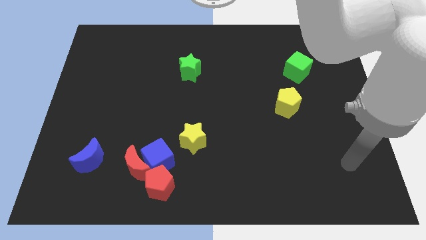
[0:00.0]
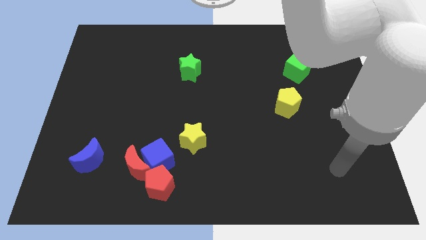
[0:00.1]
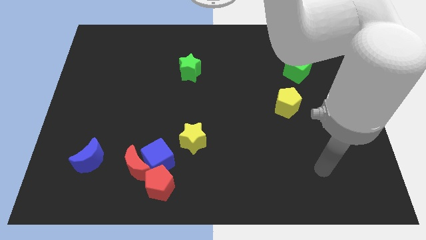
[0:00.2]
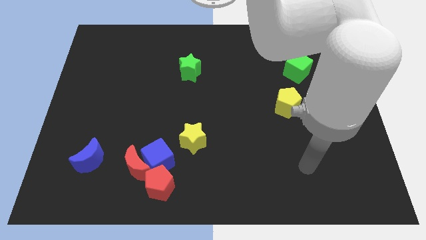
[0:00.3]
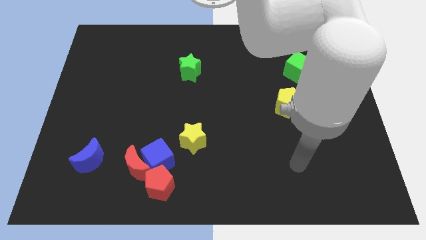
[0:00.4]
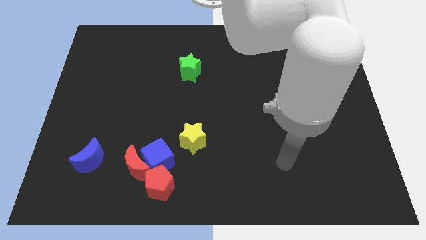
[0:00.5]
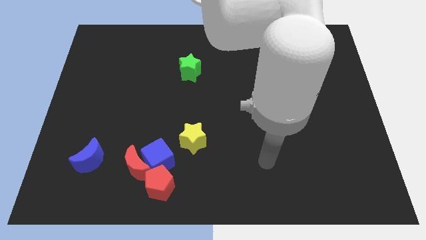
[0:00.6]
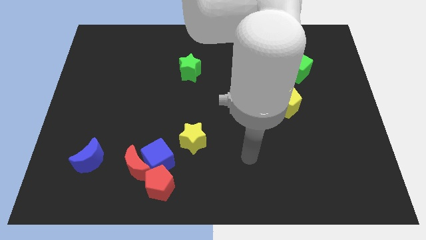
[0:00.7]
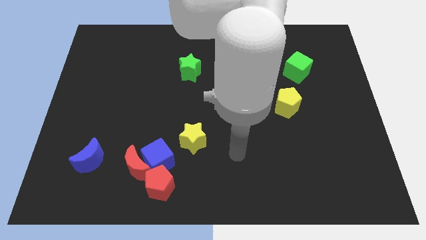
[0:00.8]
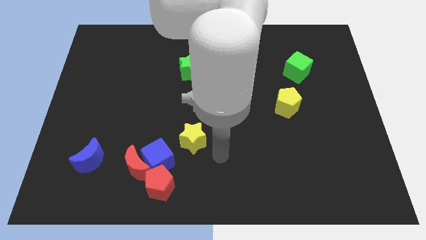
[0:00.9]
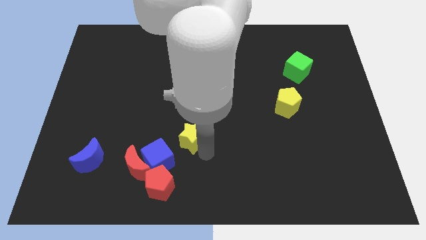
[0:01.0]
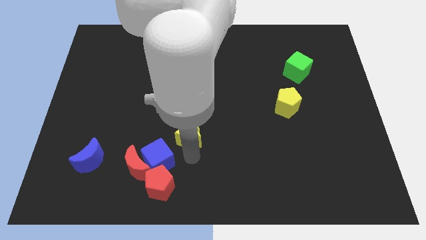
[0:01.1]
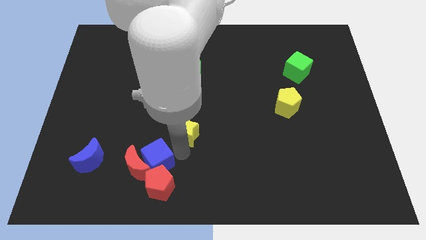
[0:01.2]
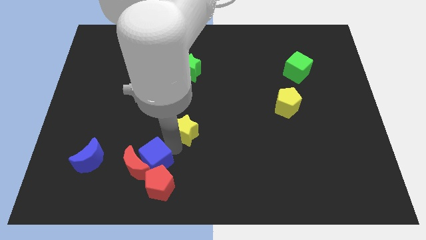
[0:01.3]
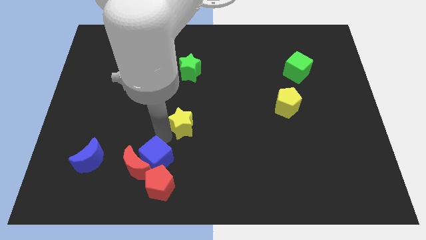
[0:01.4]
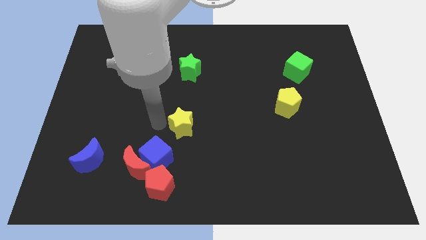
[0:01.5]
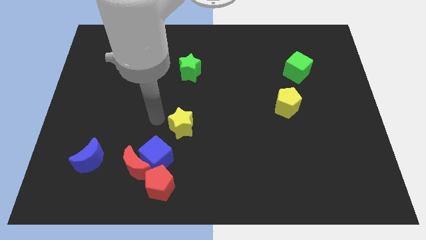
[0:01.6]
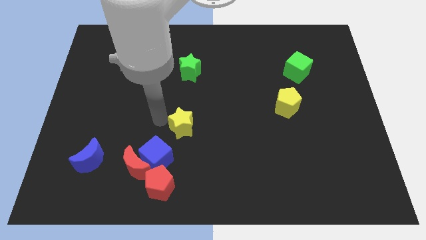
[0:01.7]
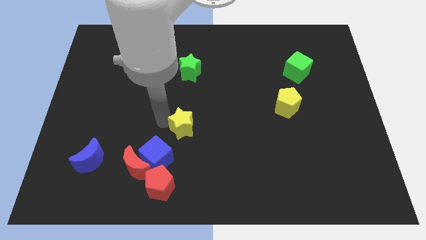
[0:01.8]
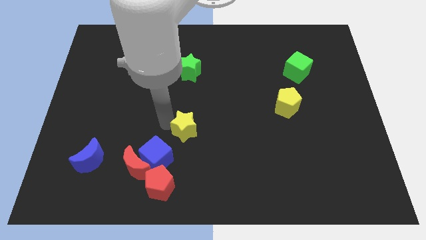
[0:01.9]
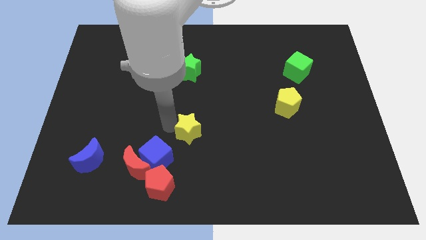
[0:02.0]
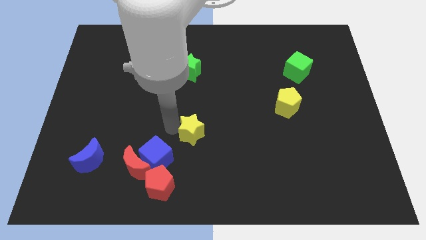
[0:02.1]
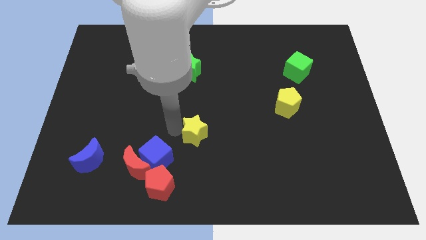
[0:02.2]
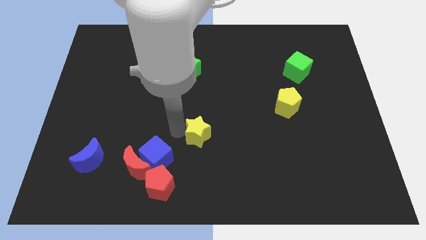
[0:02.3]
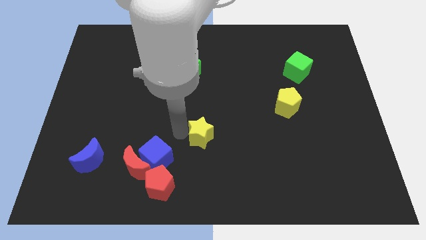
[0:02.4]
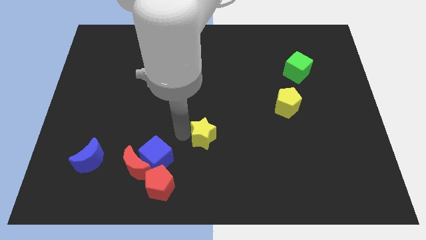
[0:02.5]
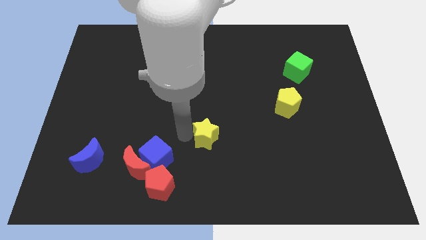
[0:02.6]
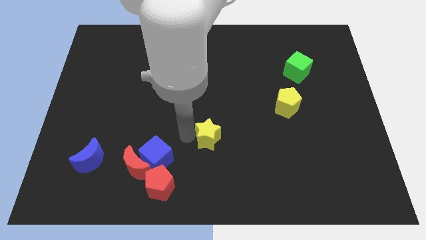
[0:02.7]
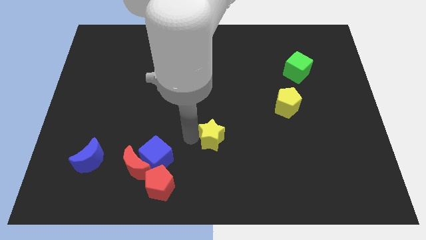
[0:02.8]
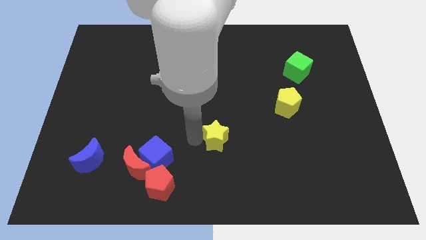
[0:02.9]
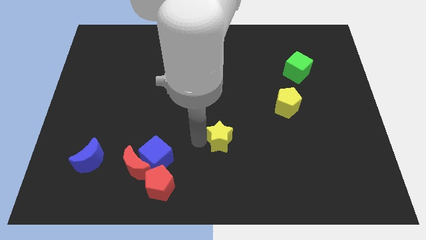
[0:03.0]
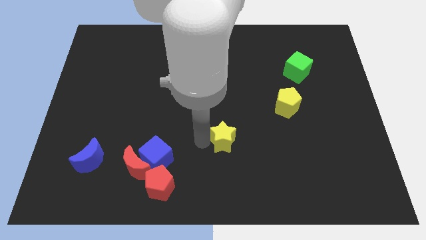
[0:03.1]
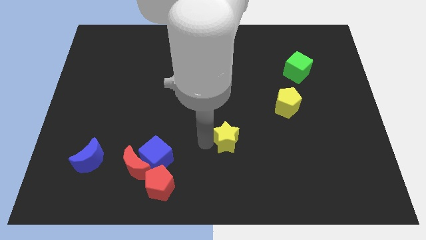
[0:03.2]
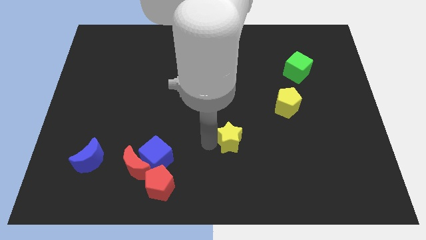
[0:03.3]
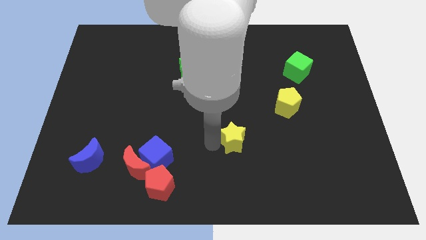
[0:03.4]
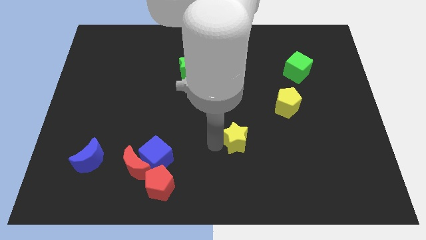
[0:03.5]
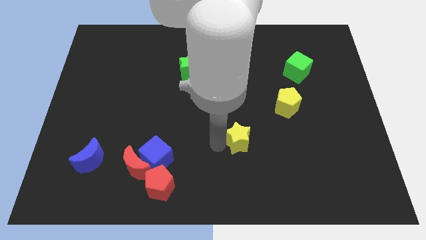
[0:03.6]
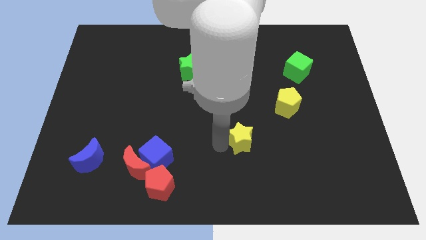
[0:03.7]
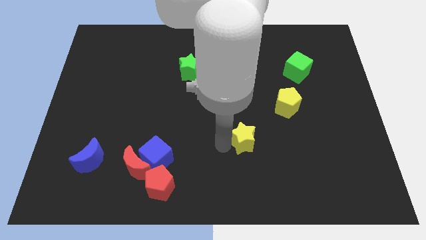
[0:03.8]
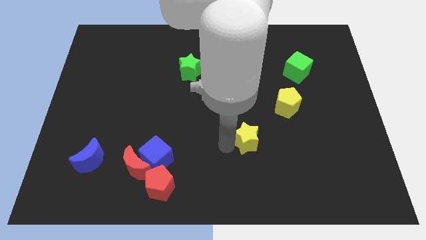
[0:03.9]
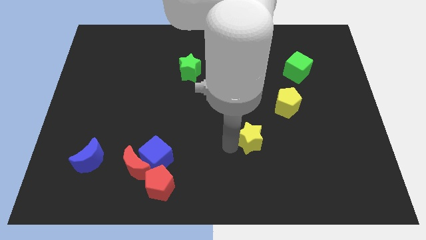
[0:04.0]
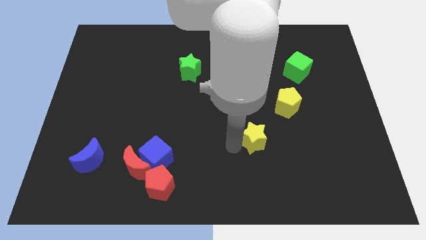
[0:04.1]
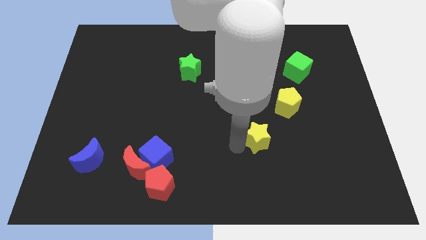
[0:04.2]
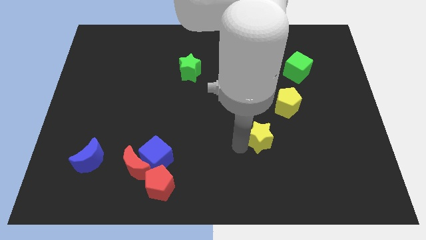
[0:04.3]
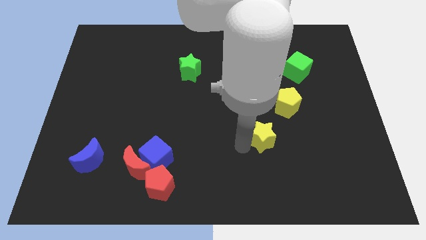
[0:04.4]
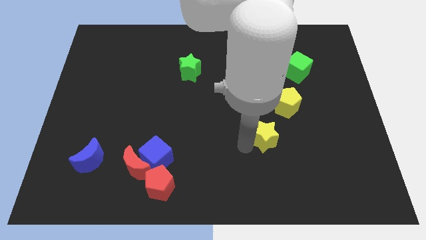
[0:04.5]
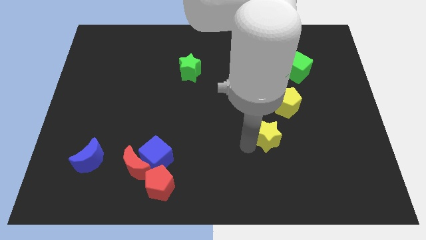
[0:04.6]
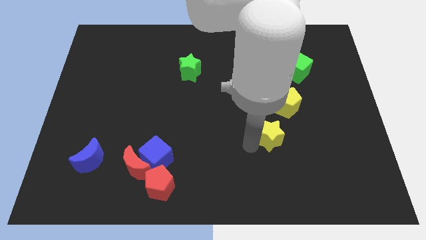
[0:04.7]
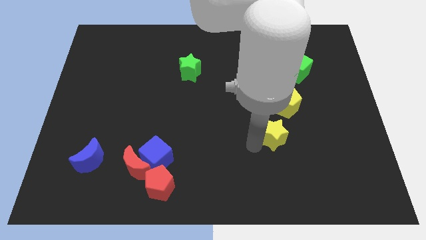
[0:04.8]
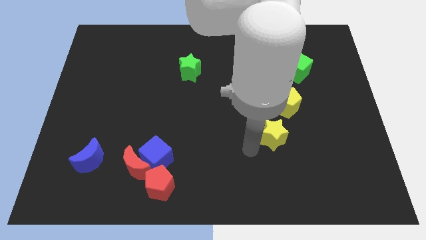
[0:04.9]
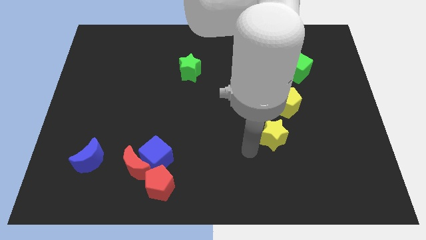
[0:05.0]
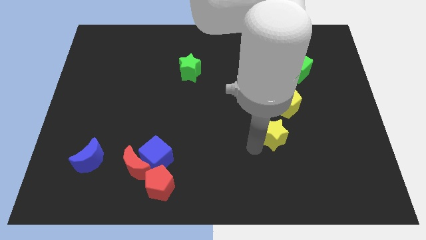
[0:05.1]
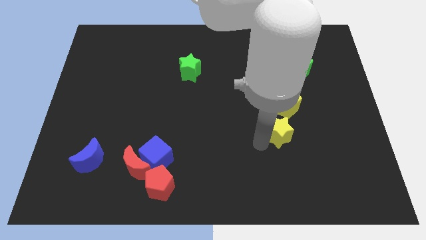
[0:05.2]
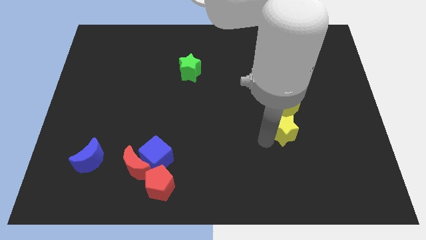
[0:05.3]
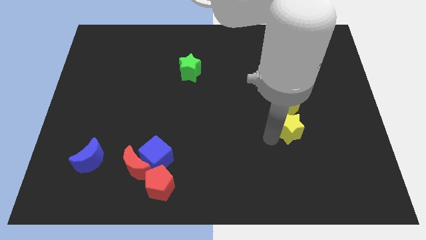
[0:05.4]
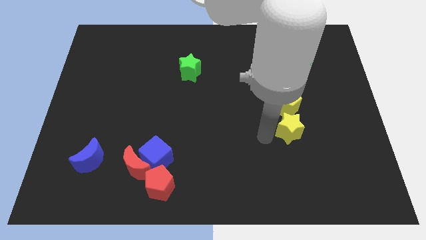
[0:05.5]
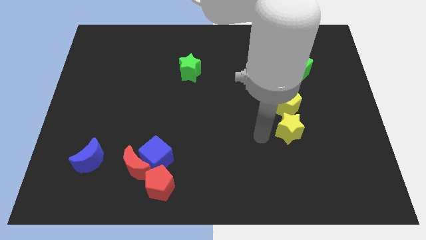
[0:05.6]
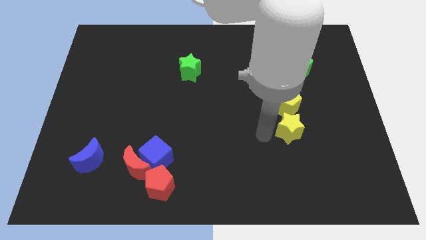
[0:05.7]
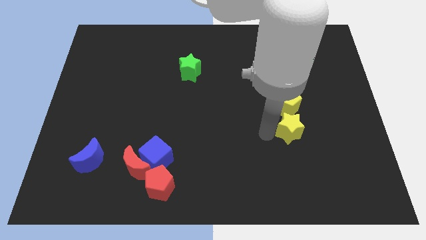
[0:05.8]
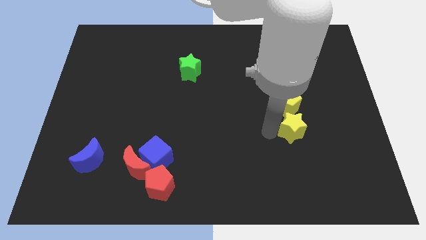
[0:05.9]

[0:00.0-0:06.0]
put the yellow star to the bottom right of the yellow pentagon

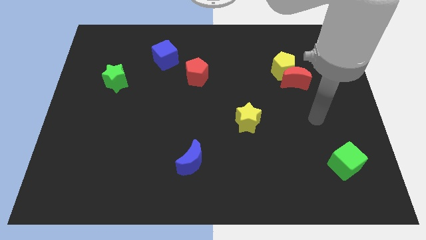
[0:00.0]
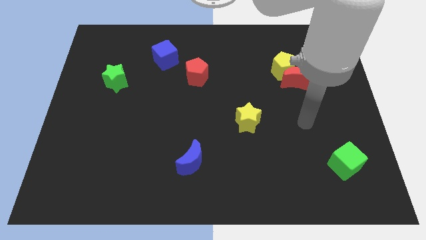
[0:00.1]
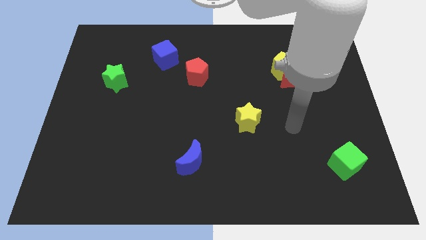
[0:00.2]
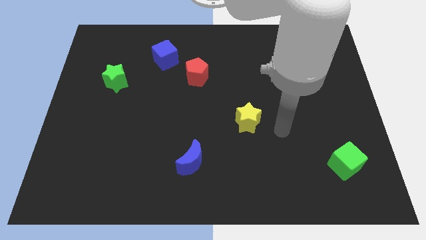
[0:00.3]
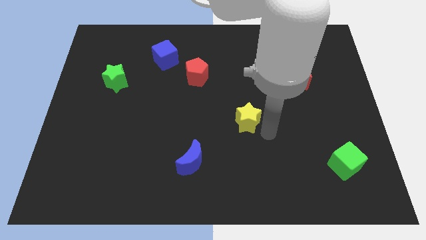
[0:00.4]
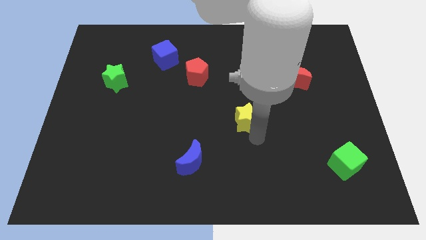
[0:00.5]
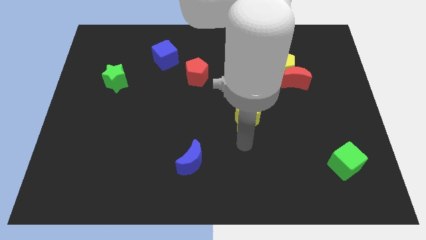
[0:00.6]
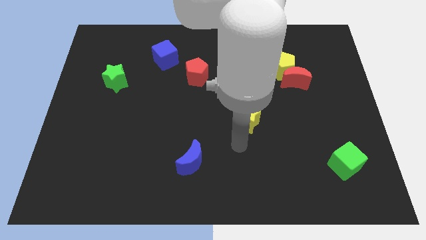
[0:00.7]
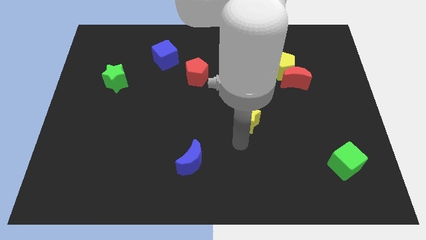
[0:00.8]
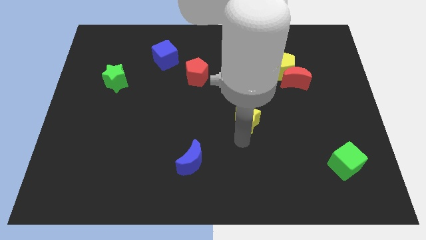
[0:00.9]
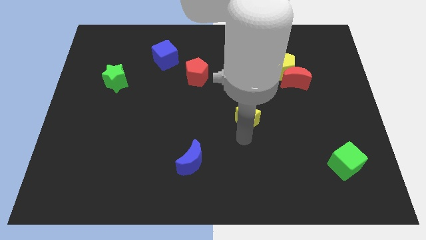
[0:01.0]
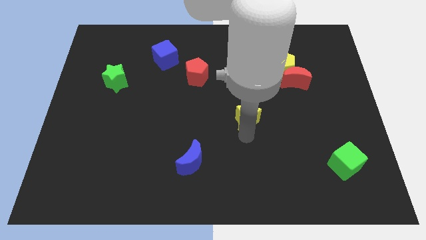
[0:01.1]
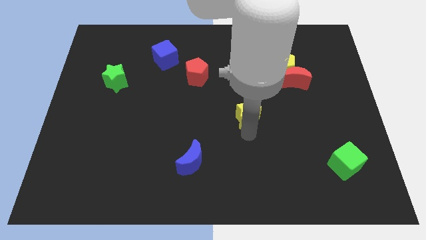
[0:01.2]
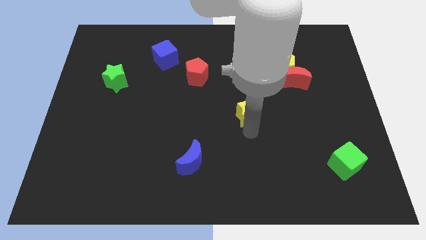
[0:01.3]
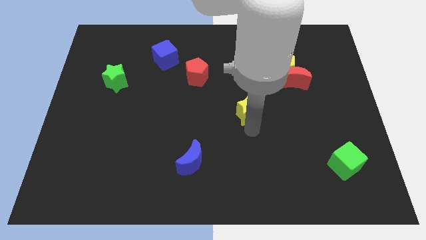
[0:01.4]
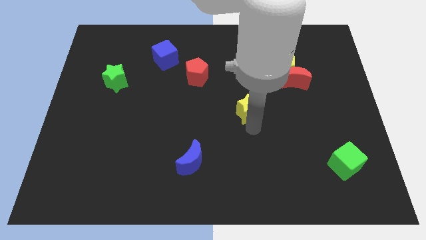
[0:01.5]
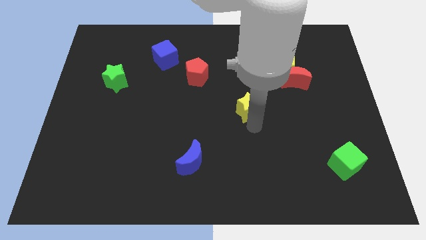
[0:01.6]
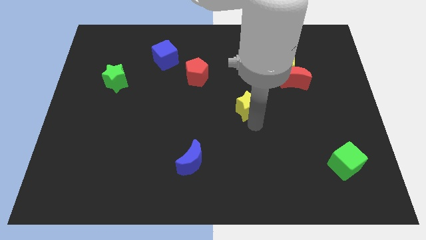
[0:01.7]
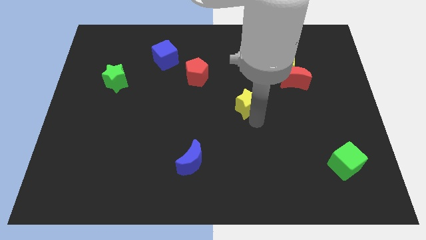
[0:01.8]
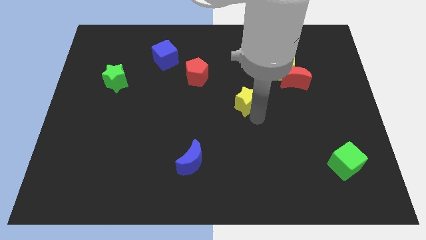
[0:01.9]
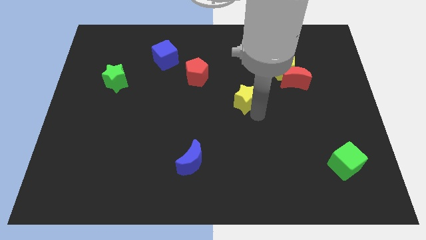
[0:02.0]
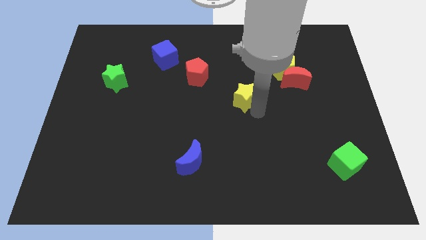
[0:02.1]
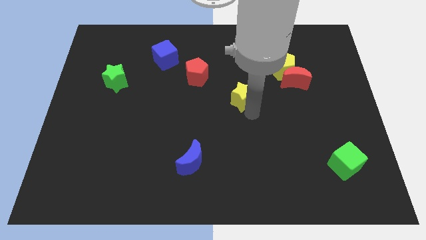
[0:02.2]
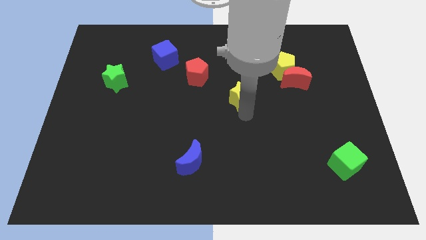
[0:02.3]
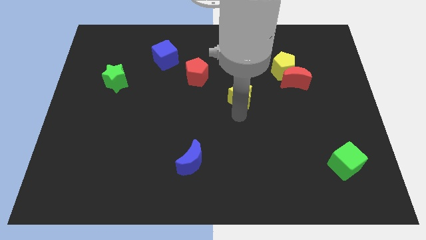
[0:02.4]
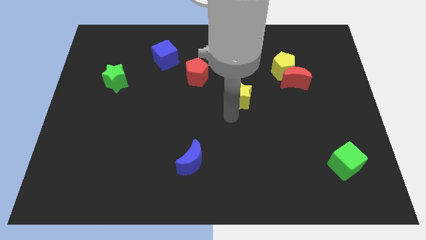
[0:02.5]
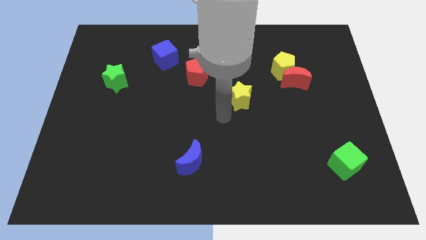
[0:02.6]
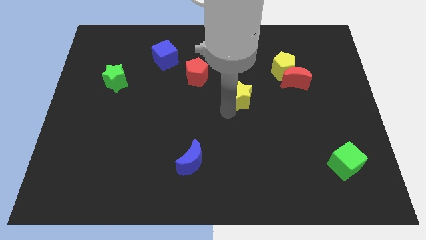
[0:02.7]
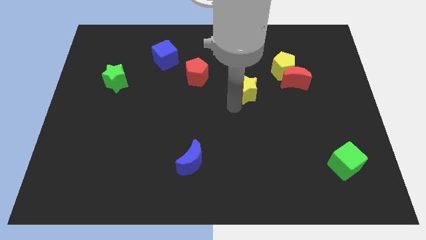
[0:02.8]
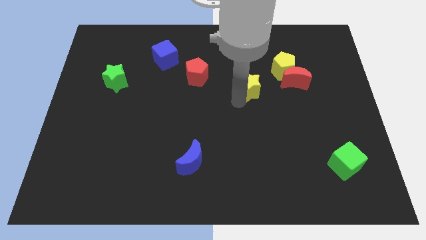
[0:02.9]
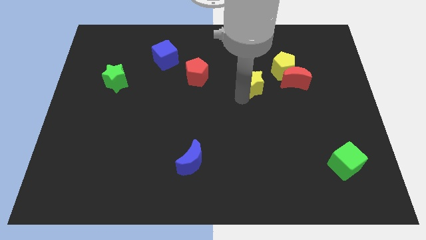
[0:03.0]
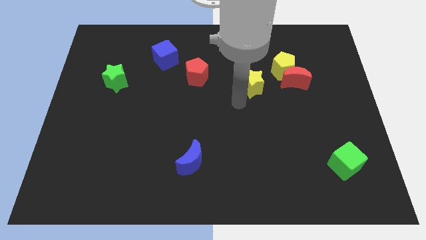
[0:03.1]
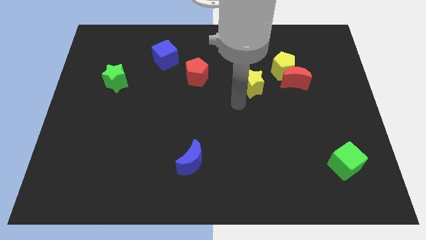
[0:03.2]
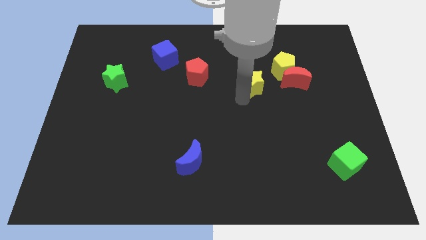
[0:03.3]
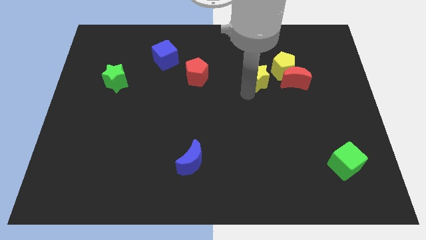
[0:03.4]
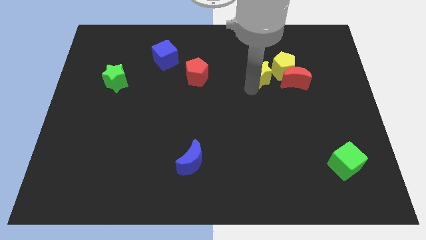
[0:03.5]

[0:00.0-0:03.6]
move the yellow star to the top left side of the red moon
